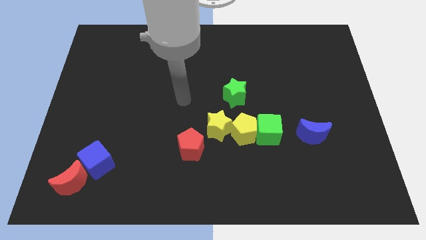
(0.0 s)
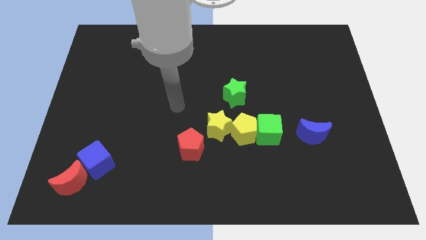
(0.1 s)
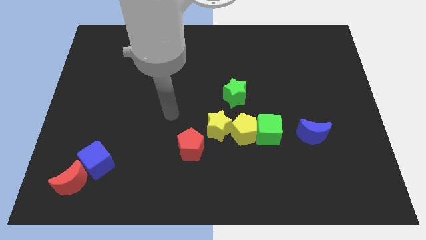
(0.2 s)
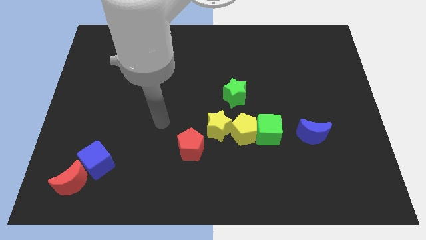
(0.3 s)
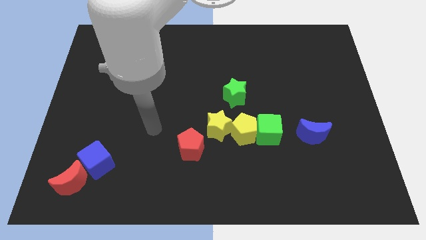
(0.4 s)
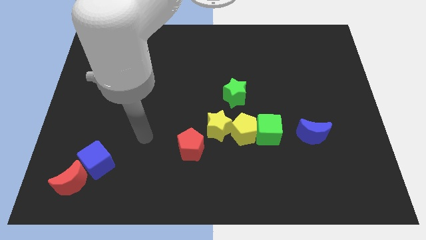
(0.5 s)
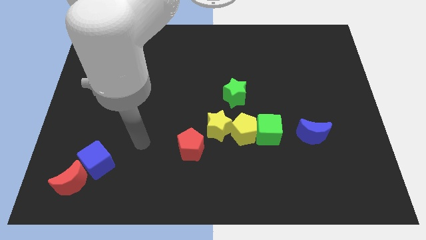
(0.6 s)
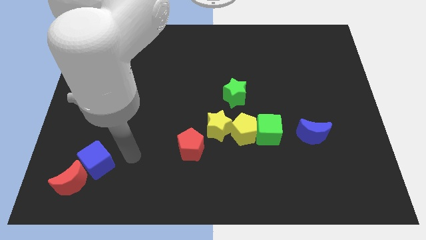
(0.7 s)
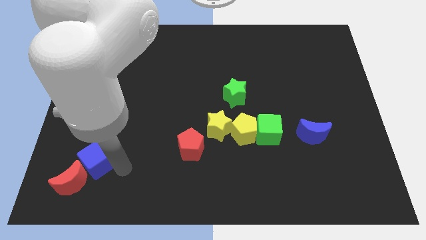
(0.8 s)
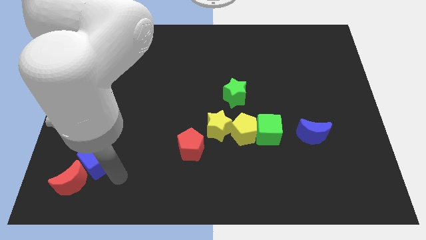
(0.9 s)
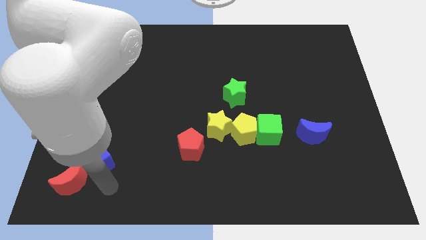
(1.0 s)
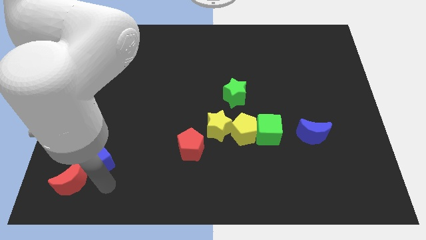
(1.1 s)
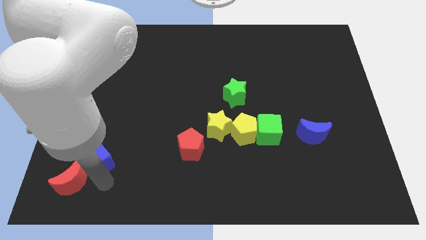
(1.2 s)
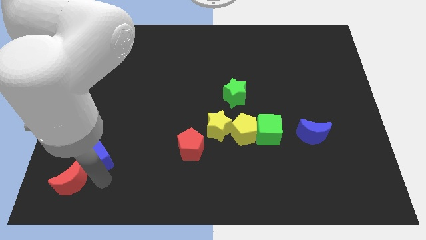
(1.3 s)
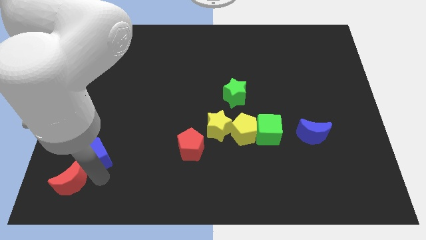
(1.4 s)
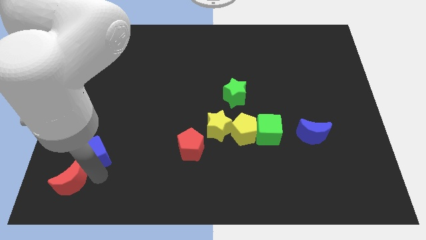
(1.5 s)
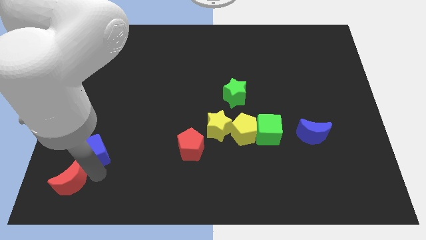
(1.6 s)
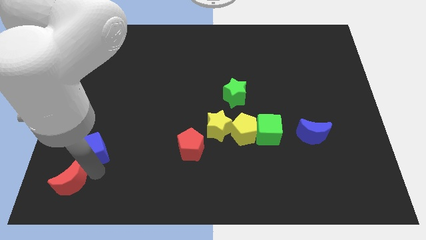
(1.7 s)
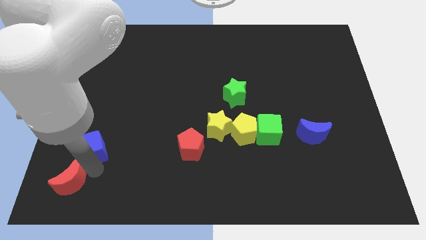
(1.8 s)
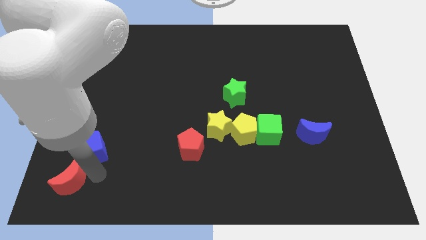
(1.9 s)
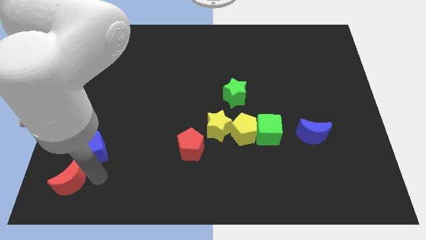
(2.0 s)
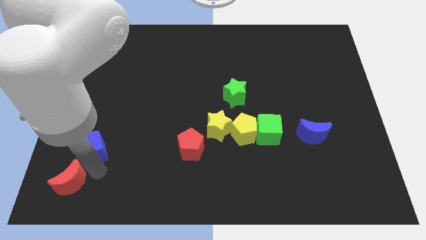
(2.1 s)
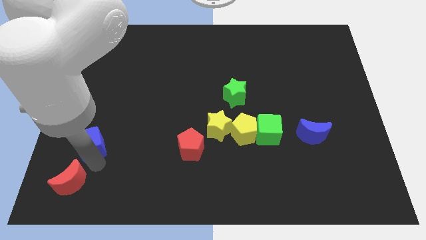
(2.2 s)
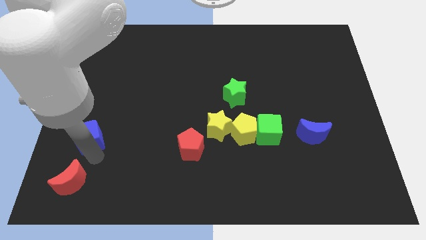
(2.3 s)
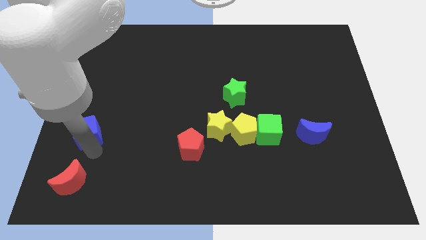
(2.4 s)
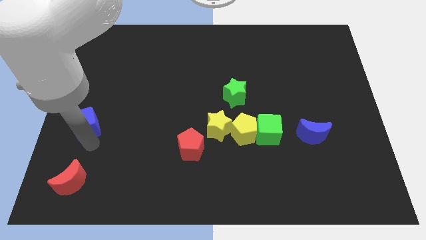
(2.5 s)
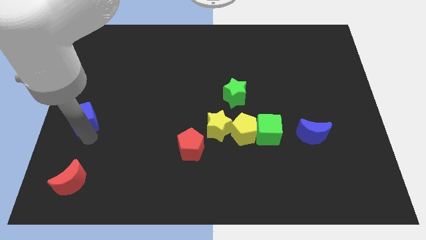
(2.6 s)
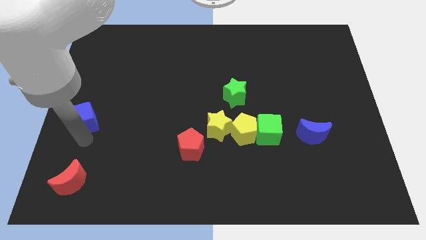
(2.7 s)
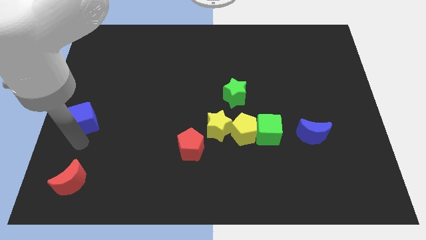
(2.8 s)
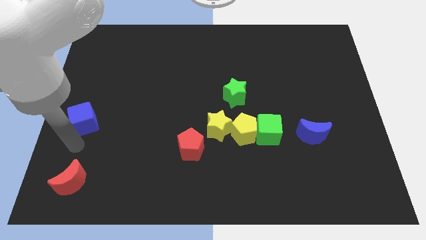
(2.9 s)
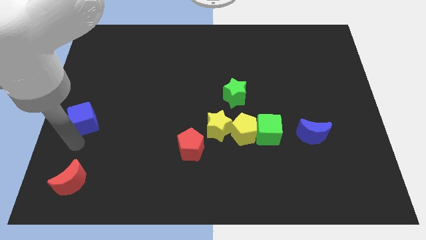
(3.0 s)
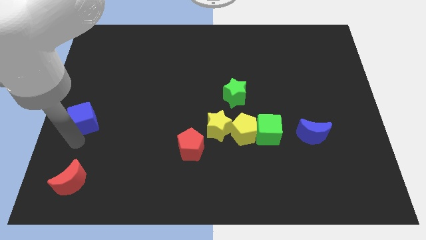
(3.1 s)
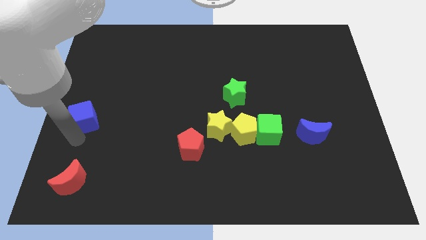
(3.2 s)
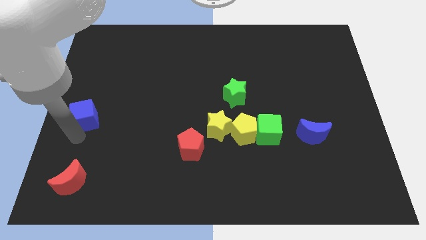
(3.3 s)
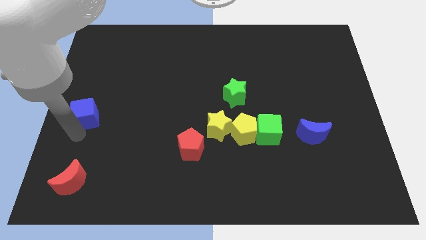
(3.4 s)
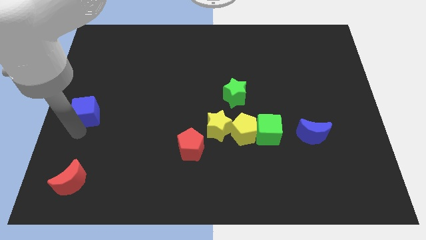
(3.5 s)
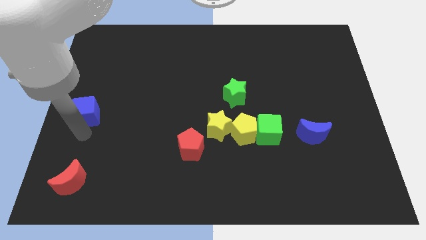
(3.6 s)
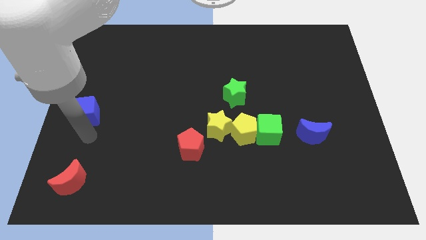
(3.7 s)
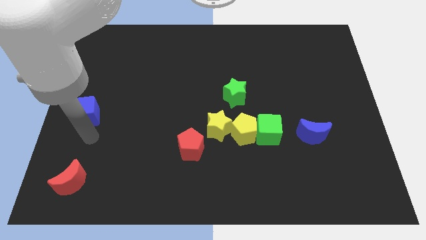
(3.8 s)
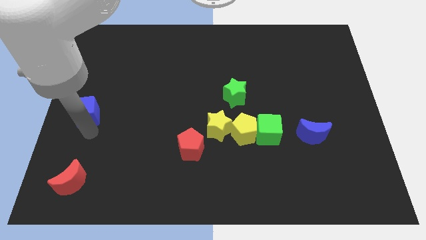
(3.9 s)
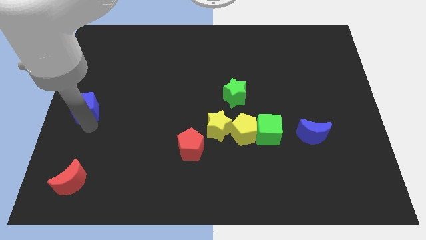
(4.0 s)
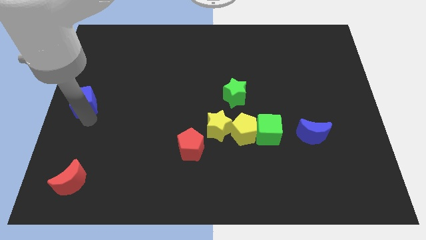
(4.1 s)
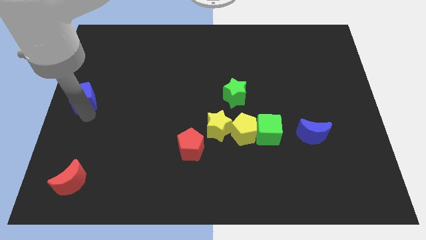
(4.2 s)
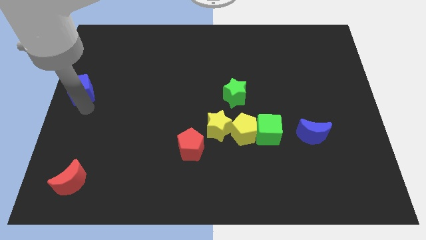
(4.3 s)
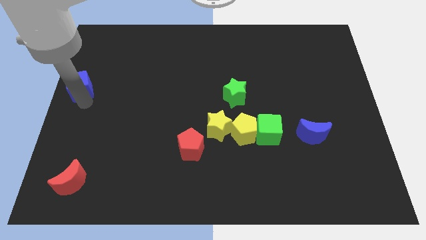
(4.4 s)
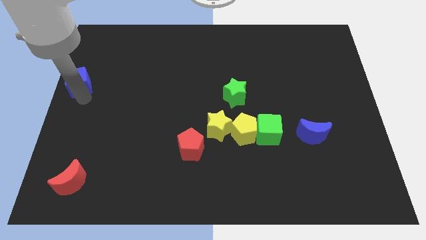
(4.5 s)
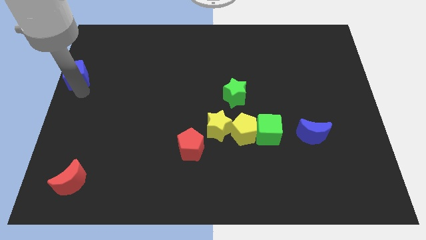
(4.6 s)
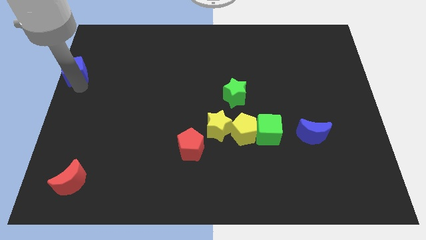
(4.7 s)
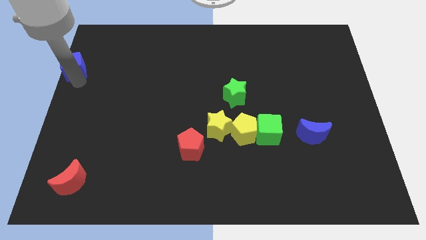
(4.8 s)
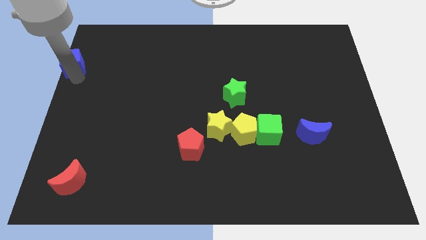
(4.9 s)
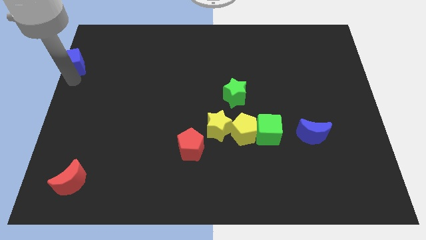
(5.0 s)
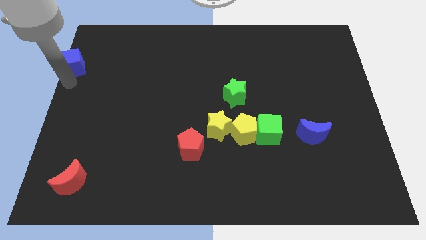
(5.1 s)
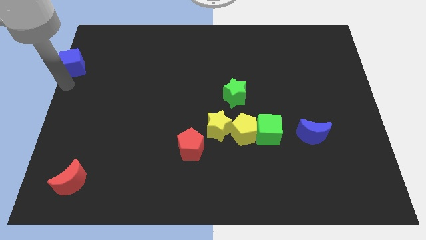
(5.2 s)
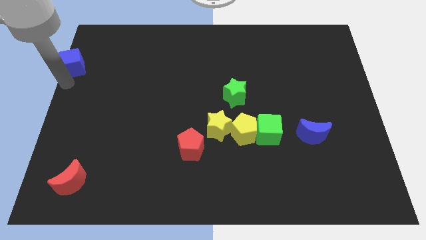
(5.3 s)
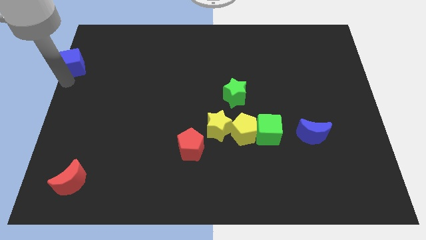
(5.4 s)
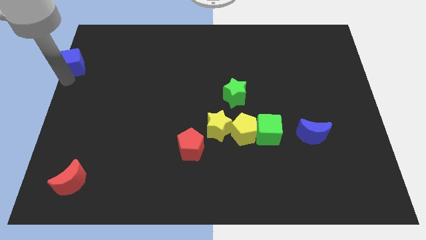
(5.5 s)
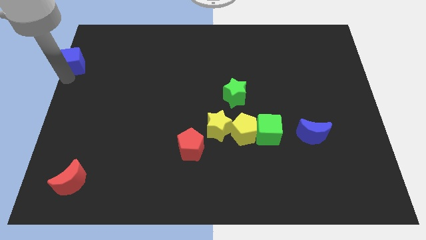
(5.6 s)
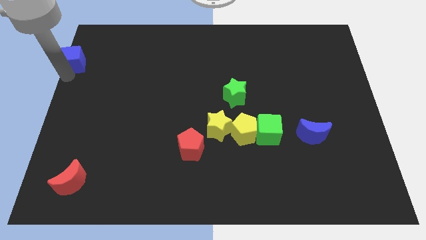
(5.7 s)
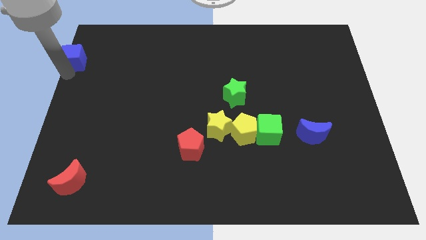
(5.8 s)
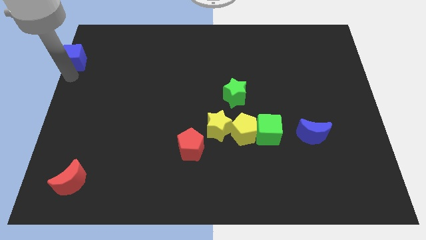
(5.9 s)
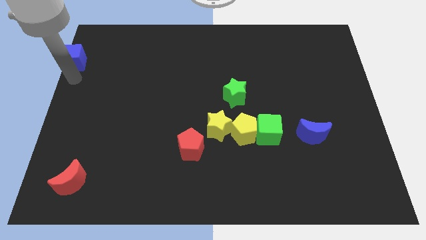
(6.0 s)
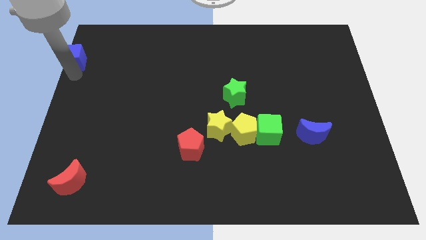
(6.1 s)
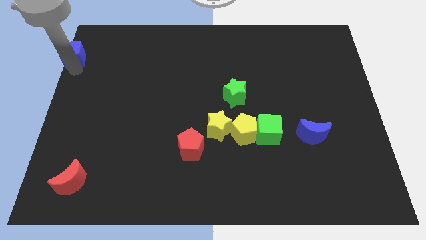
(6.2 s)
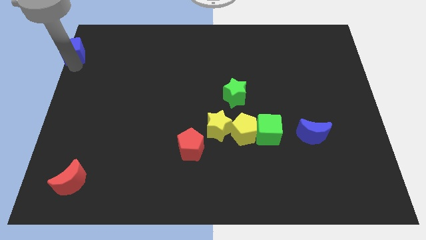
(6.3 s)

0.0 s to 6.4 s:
slide the blue cube to the upper left corner
